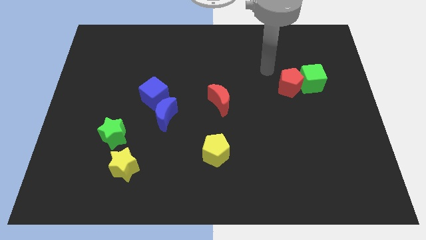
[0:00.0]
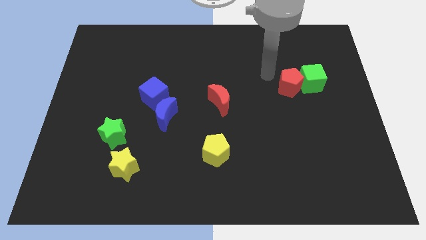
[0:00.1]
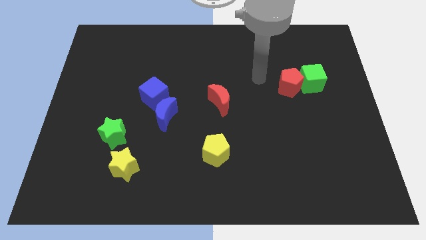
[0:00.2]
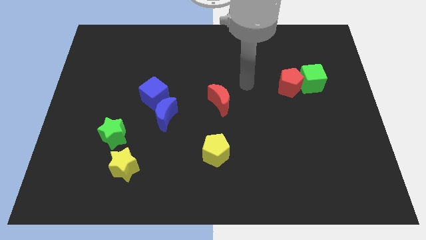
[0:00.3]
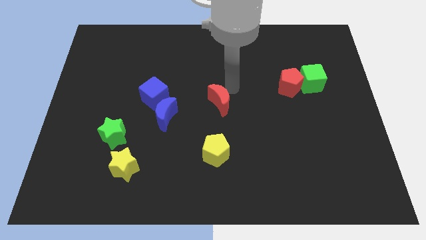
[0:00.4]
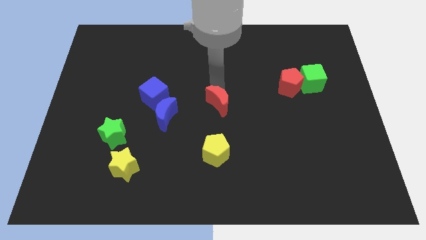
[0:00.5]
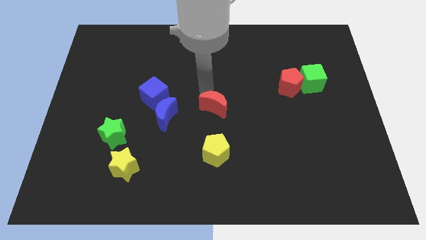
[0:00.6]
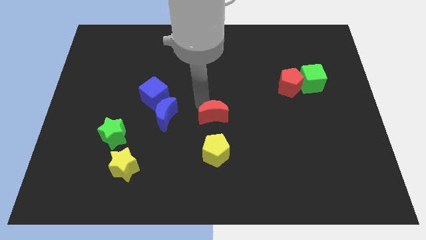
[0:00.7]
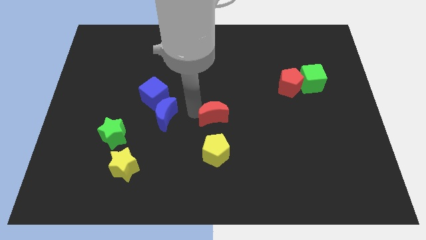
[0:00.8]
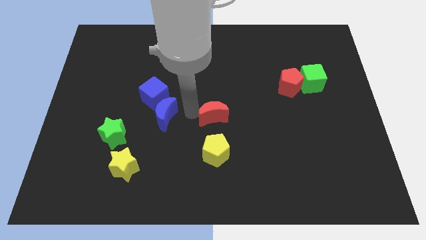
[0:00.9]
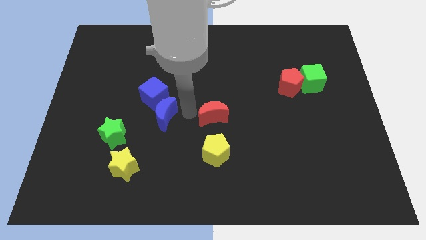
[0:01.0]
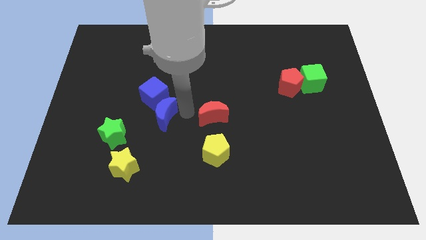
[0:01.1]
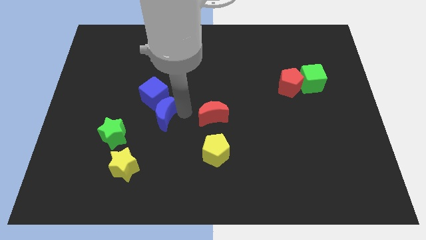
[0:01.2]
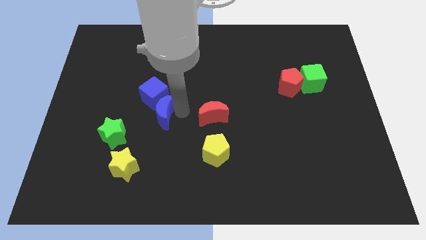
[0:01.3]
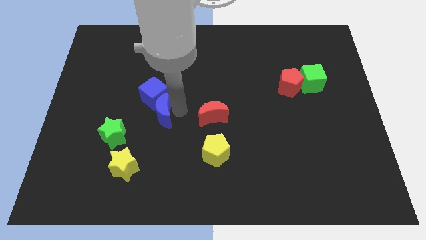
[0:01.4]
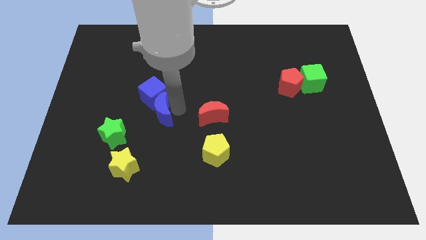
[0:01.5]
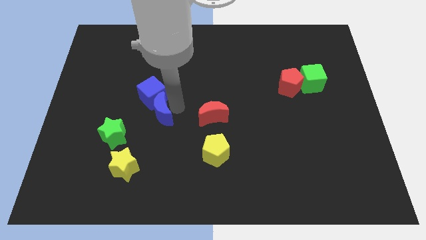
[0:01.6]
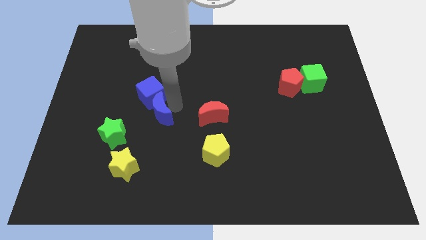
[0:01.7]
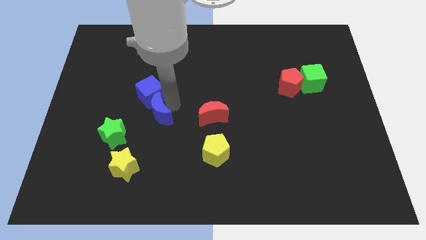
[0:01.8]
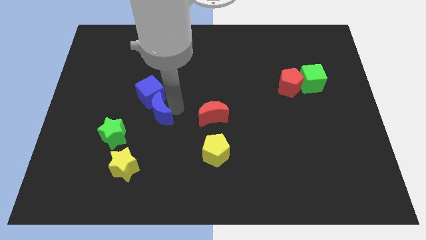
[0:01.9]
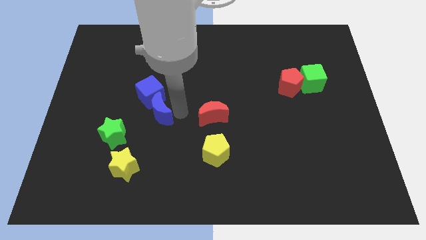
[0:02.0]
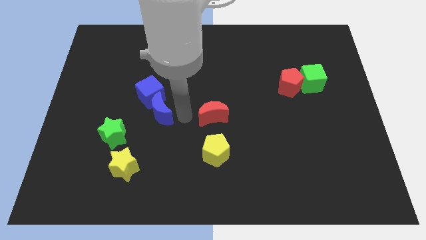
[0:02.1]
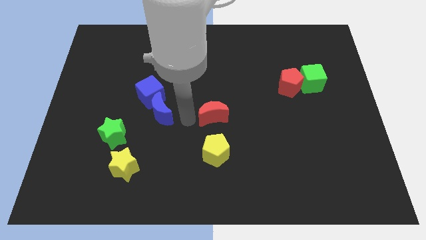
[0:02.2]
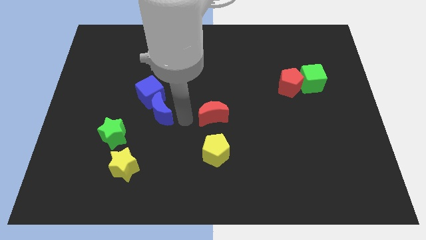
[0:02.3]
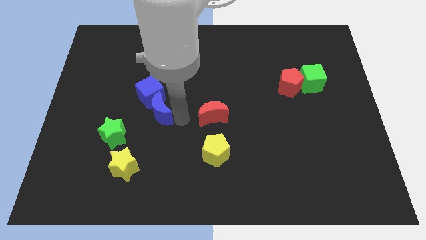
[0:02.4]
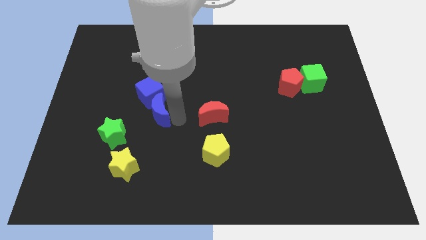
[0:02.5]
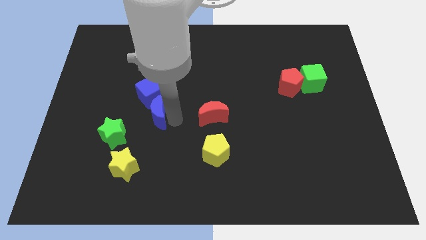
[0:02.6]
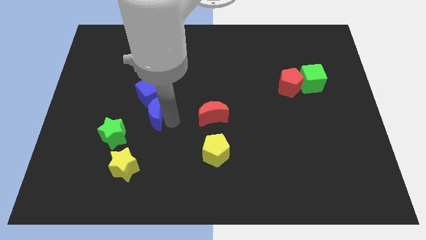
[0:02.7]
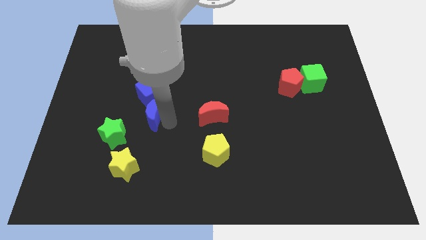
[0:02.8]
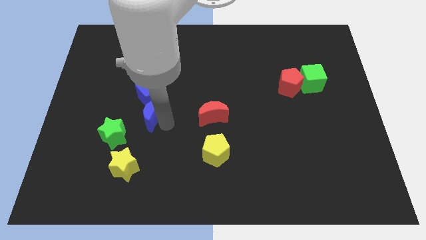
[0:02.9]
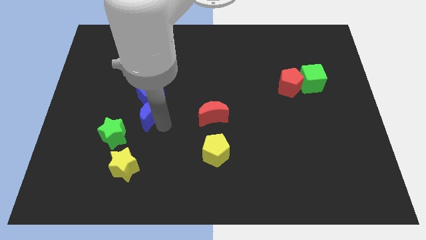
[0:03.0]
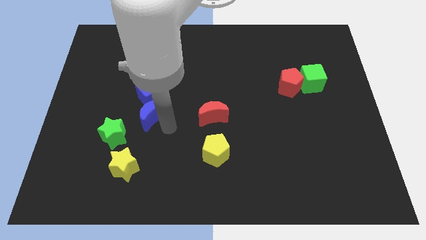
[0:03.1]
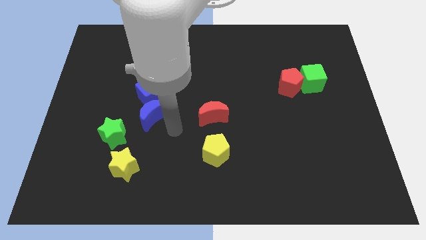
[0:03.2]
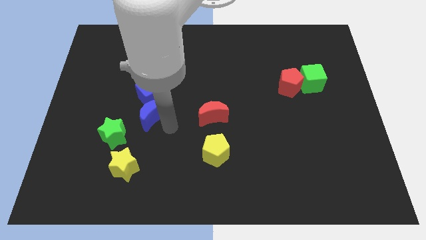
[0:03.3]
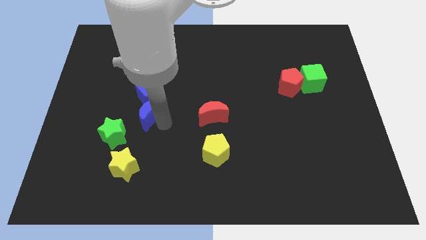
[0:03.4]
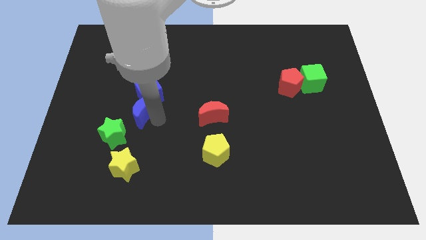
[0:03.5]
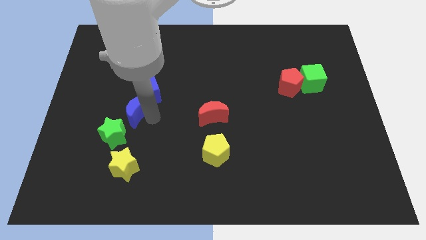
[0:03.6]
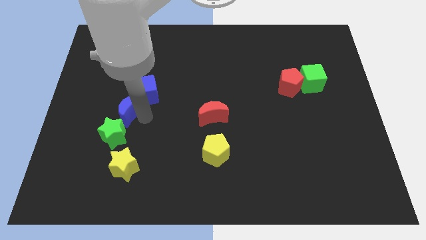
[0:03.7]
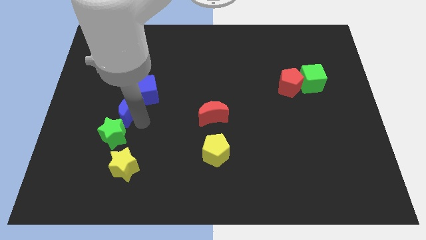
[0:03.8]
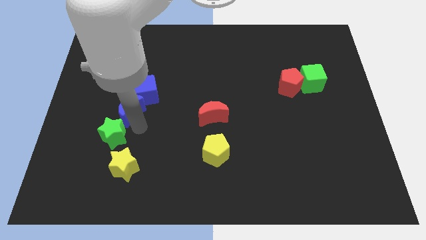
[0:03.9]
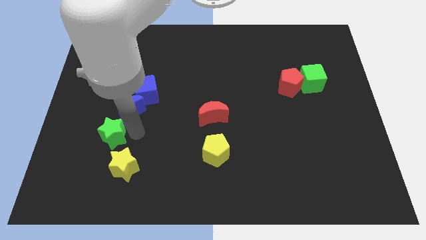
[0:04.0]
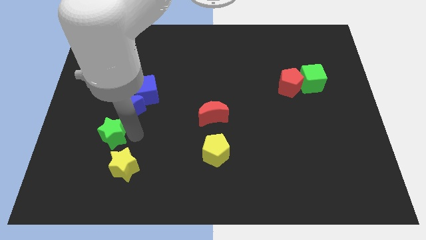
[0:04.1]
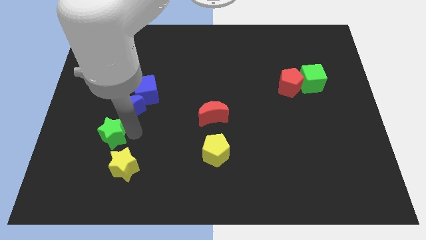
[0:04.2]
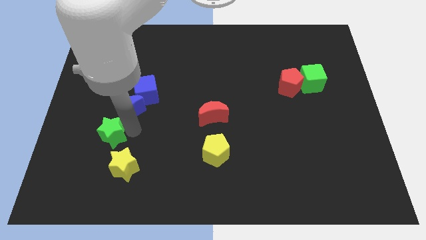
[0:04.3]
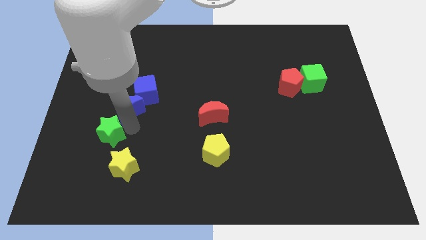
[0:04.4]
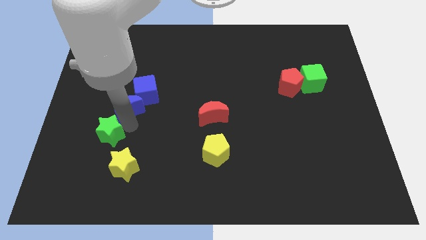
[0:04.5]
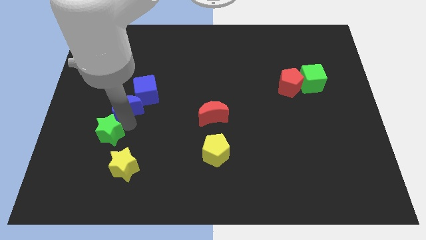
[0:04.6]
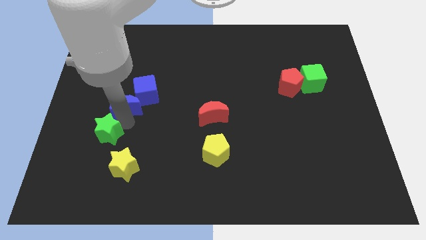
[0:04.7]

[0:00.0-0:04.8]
move the blue moon upwards and left diagonally a little

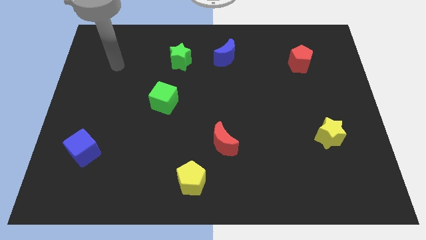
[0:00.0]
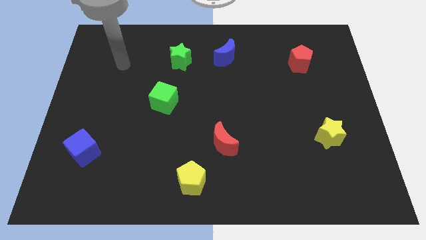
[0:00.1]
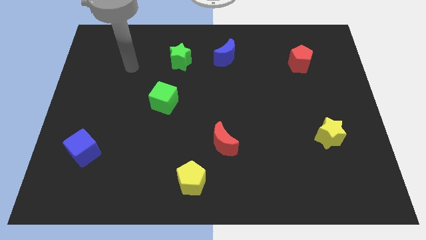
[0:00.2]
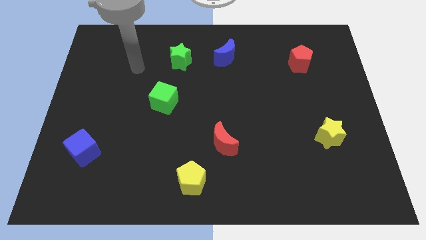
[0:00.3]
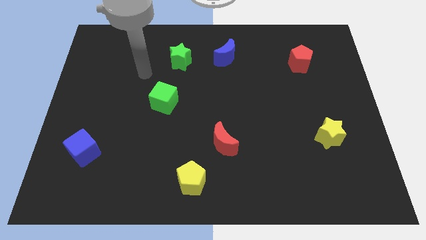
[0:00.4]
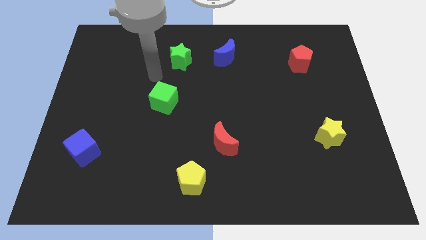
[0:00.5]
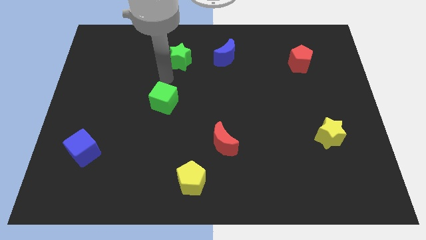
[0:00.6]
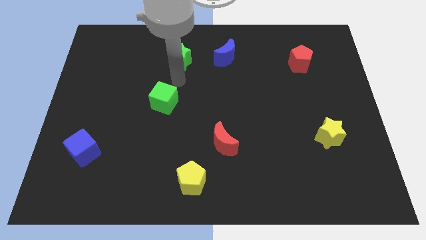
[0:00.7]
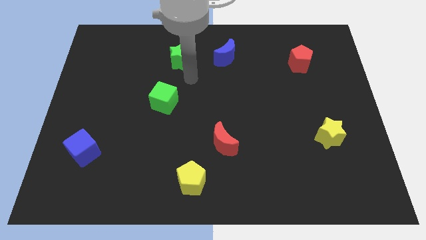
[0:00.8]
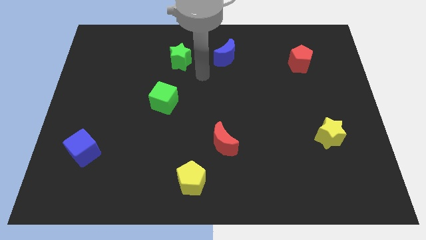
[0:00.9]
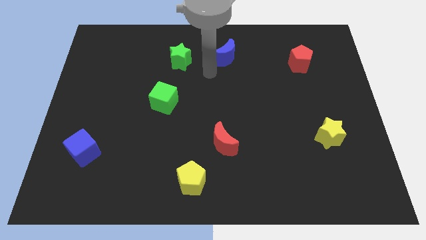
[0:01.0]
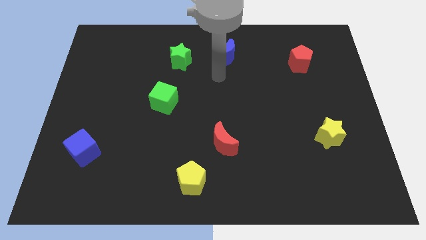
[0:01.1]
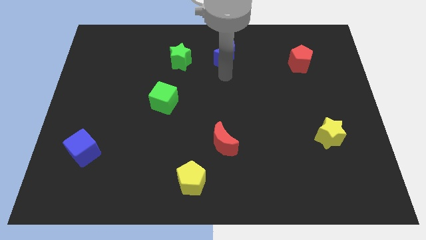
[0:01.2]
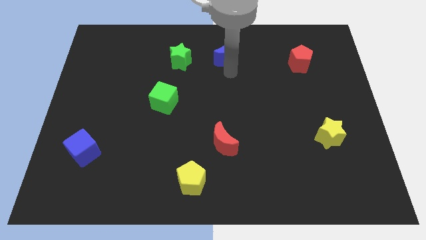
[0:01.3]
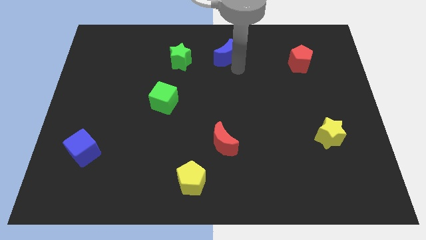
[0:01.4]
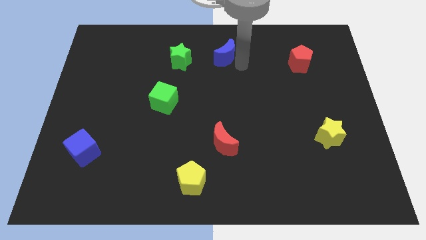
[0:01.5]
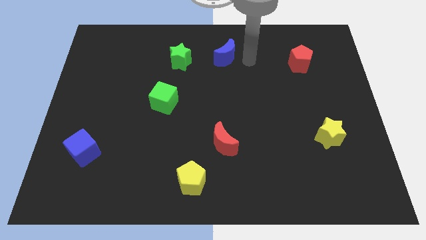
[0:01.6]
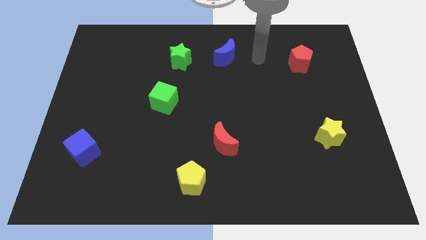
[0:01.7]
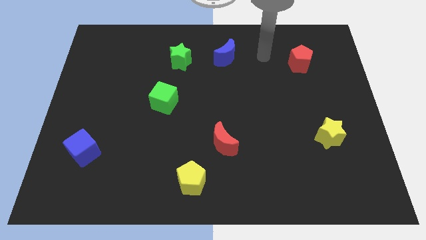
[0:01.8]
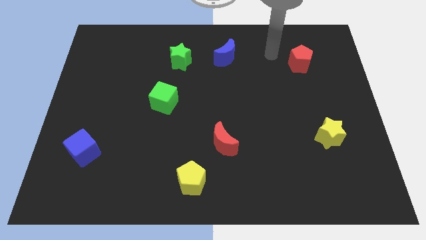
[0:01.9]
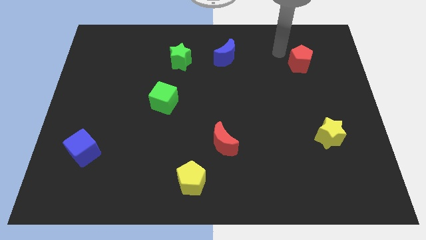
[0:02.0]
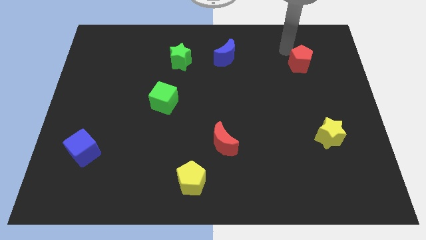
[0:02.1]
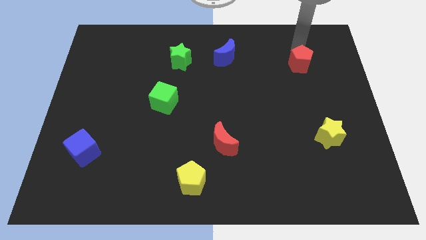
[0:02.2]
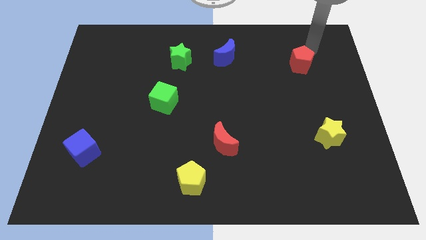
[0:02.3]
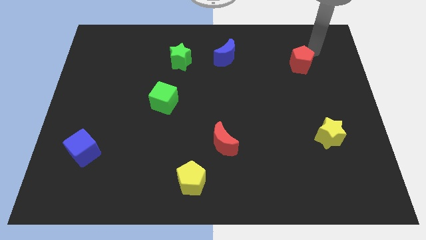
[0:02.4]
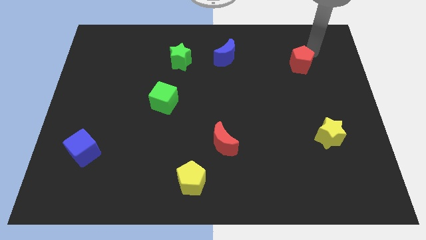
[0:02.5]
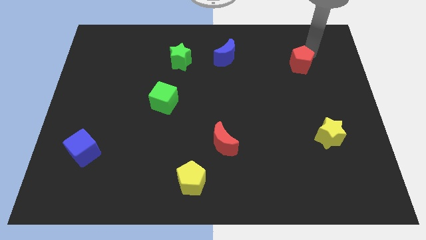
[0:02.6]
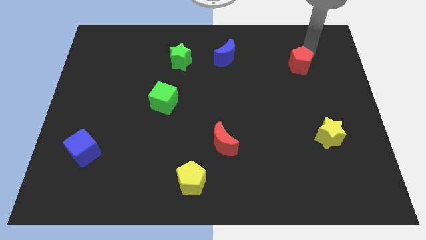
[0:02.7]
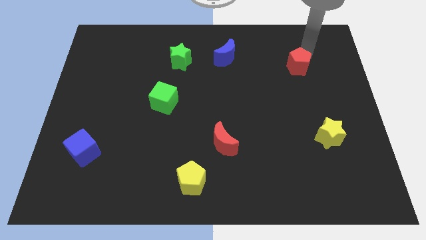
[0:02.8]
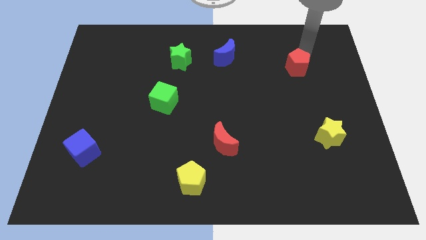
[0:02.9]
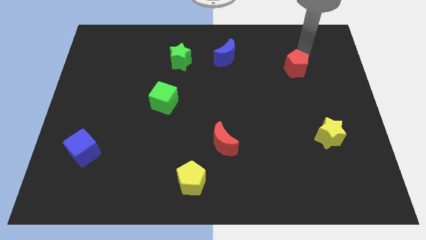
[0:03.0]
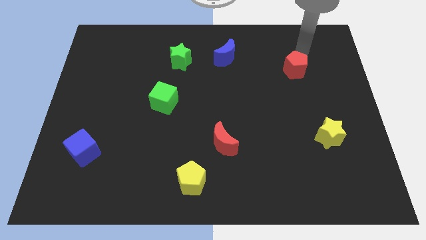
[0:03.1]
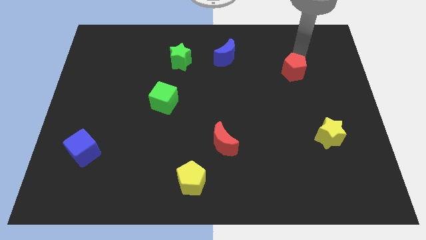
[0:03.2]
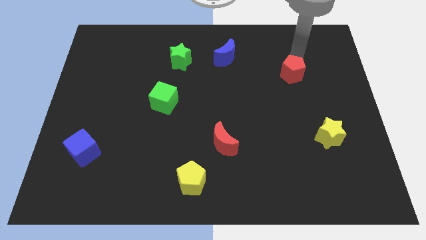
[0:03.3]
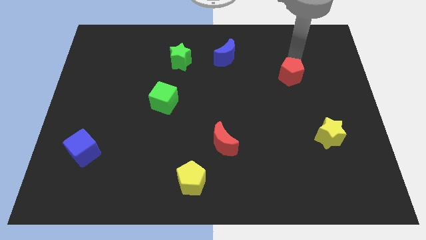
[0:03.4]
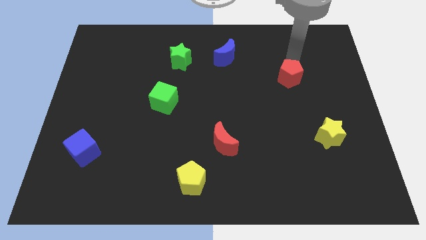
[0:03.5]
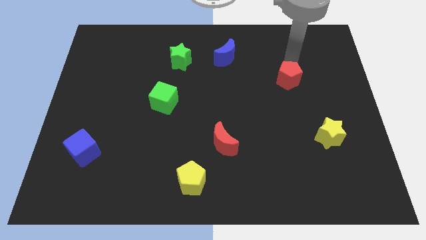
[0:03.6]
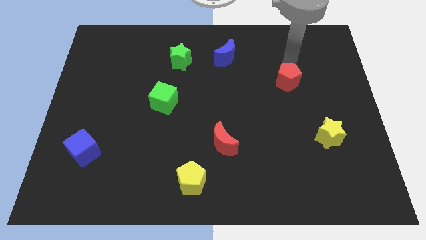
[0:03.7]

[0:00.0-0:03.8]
move the red pentagon a little bit down and to the left

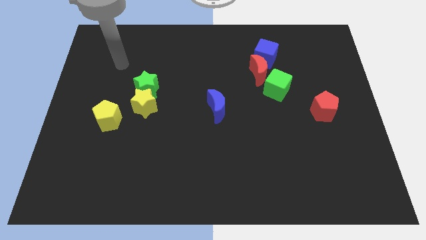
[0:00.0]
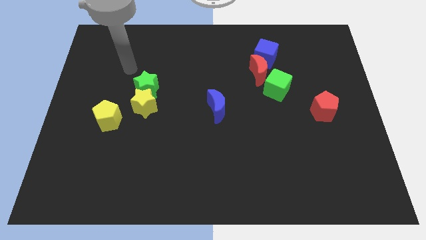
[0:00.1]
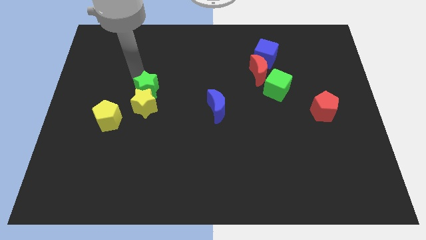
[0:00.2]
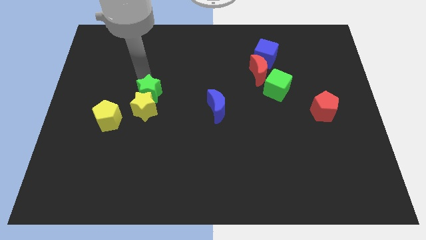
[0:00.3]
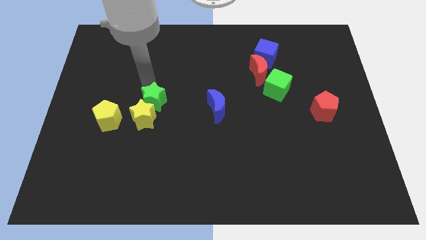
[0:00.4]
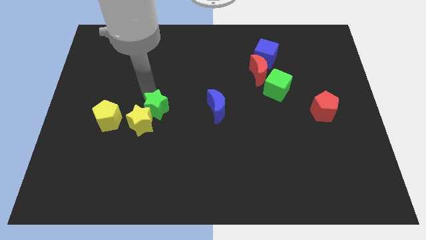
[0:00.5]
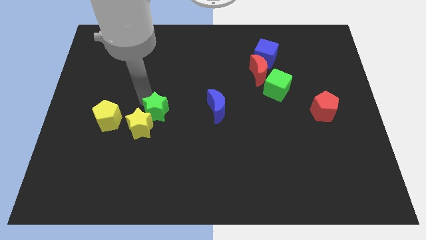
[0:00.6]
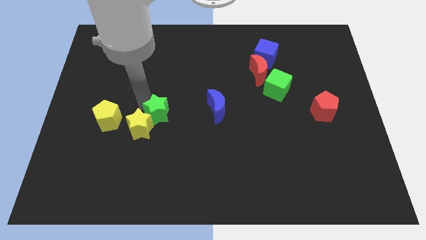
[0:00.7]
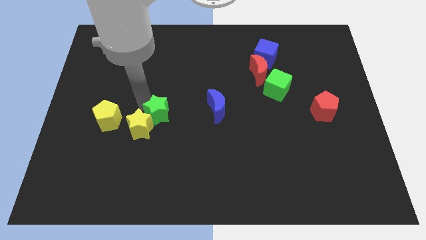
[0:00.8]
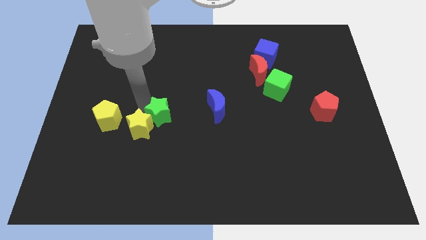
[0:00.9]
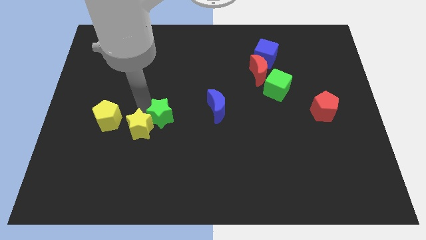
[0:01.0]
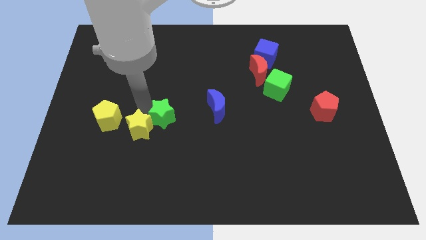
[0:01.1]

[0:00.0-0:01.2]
push the yellow star down somewhat
